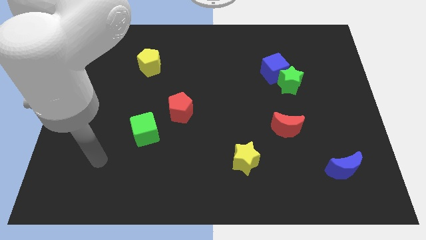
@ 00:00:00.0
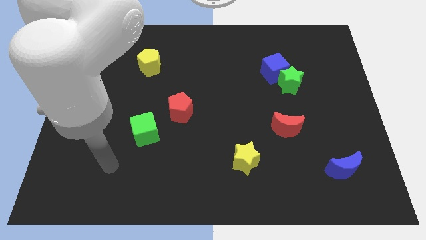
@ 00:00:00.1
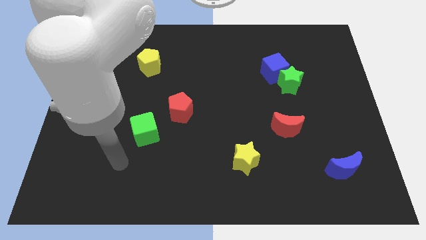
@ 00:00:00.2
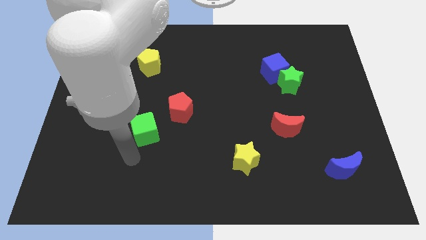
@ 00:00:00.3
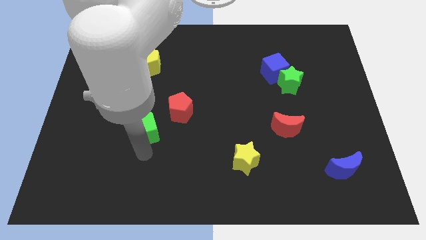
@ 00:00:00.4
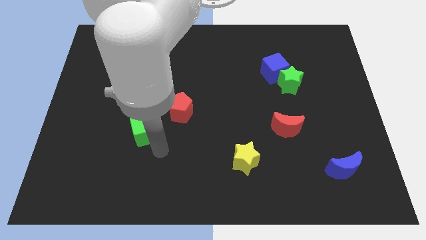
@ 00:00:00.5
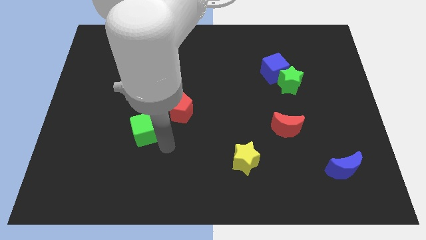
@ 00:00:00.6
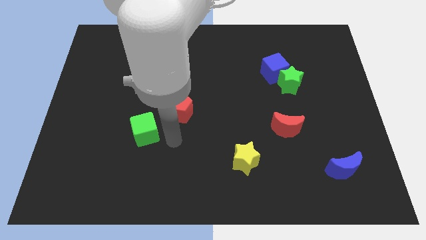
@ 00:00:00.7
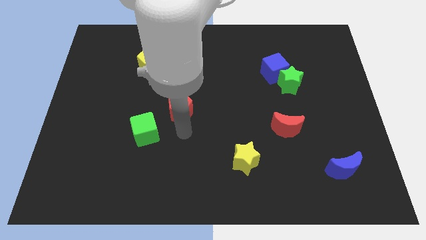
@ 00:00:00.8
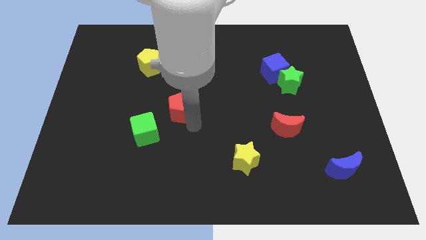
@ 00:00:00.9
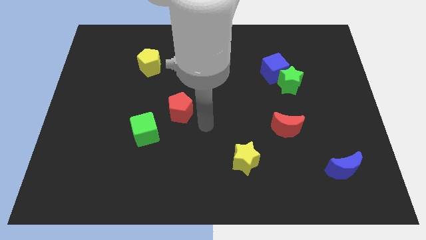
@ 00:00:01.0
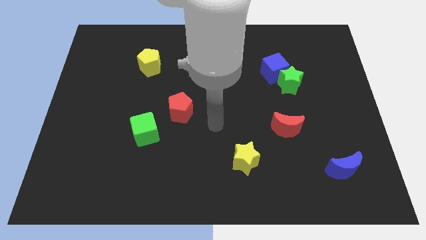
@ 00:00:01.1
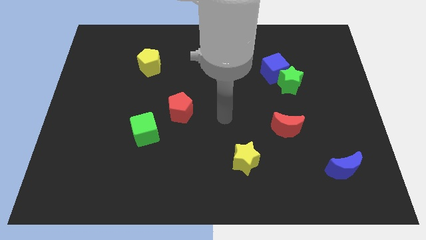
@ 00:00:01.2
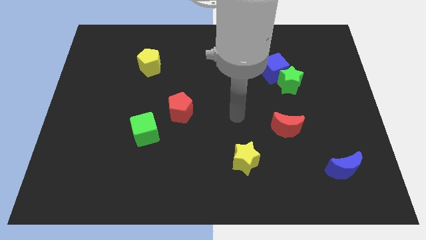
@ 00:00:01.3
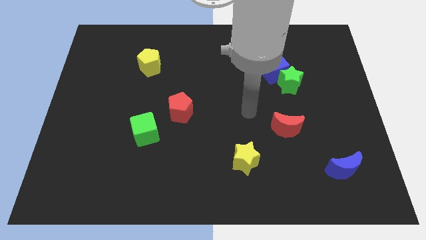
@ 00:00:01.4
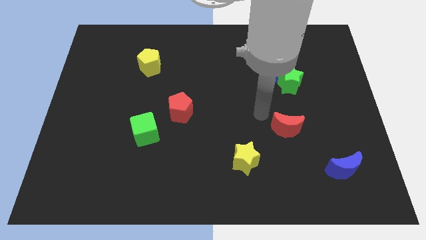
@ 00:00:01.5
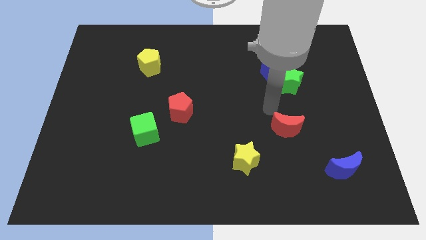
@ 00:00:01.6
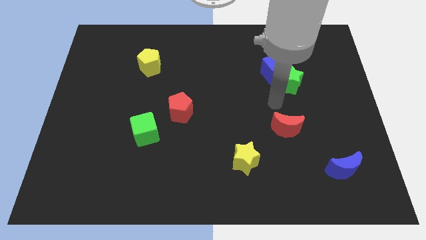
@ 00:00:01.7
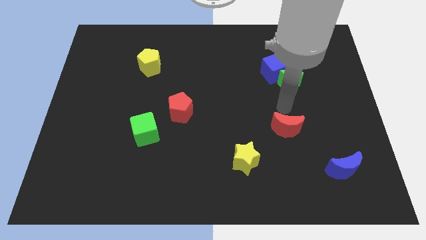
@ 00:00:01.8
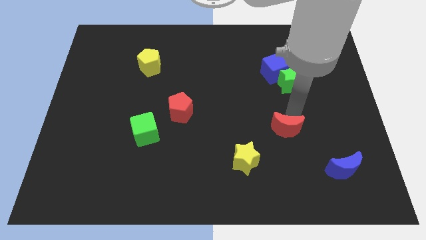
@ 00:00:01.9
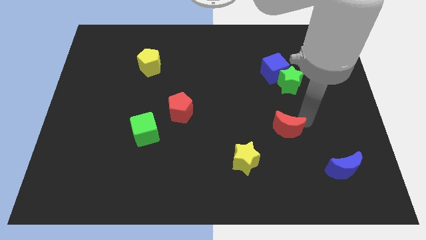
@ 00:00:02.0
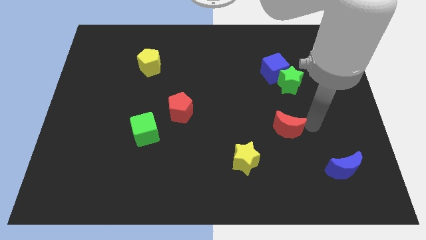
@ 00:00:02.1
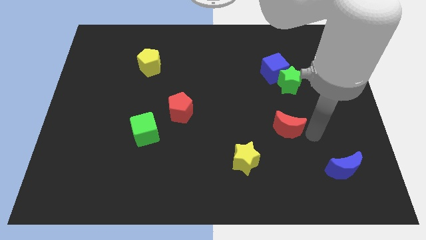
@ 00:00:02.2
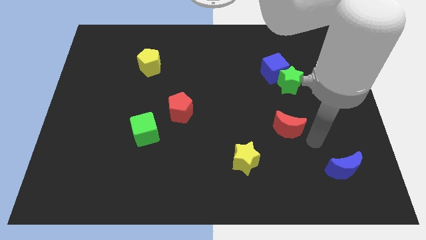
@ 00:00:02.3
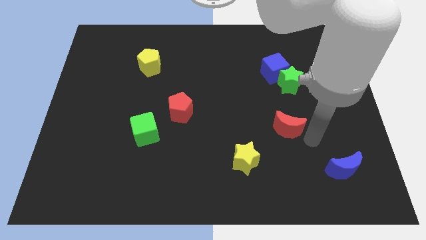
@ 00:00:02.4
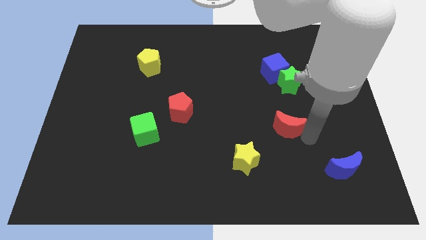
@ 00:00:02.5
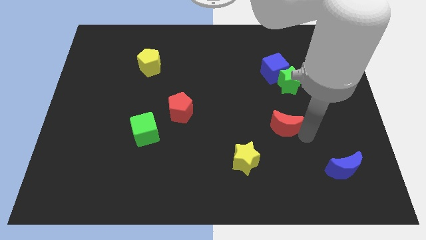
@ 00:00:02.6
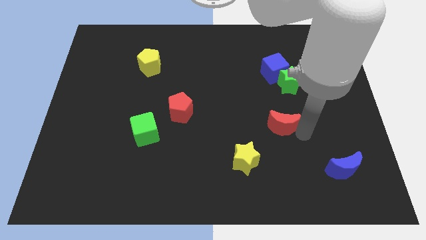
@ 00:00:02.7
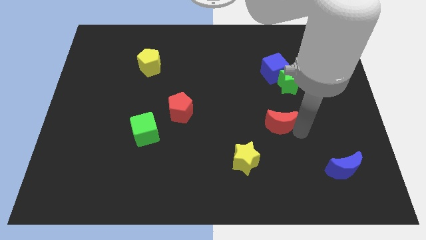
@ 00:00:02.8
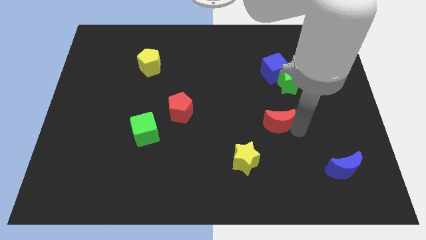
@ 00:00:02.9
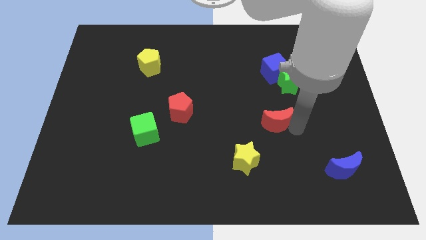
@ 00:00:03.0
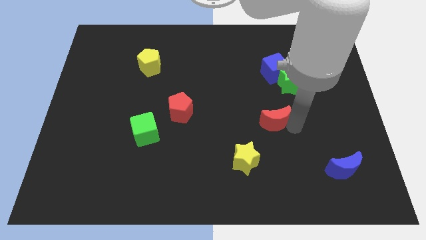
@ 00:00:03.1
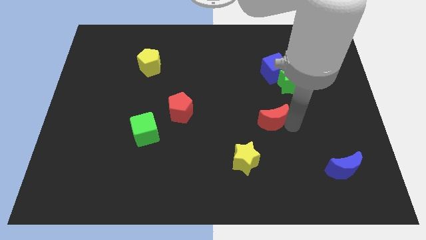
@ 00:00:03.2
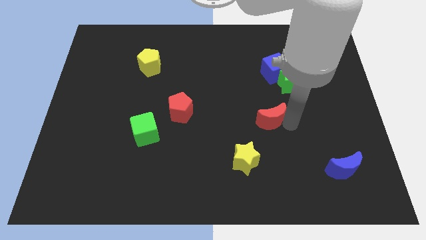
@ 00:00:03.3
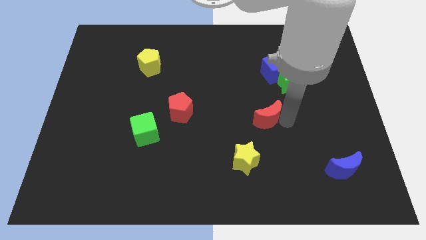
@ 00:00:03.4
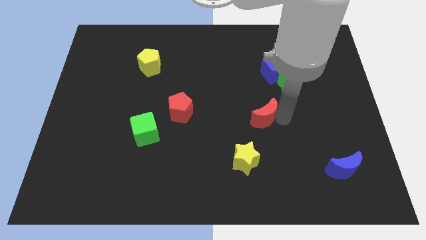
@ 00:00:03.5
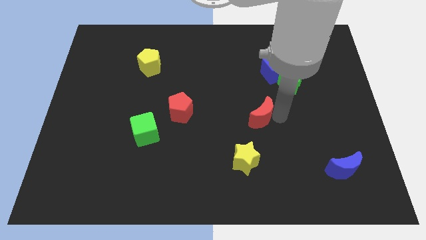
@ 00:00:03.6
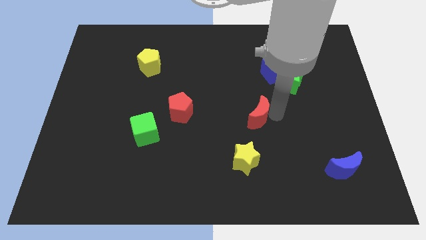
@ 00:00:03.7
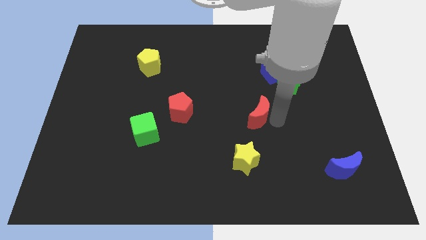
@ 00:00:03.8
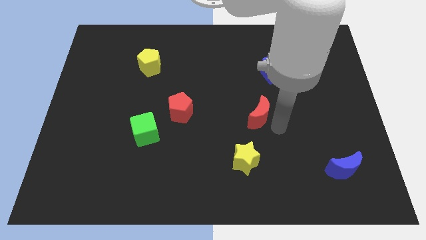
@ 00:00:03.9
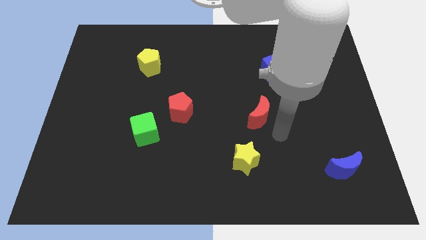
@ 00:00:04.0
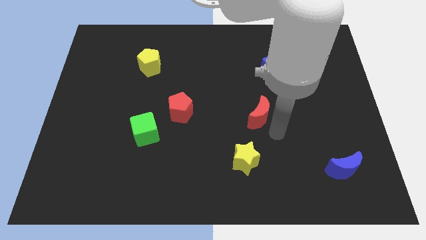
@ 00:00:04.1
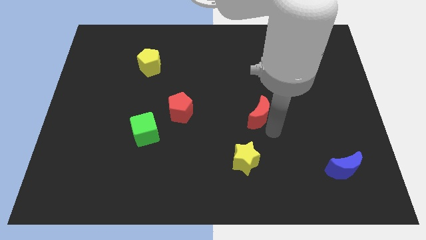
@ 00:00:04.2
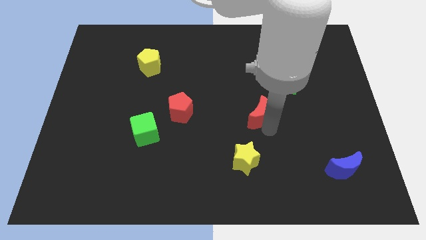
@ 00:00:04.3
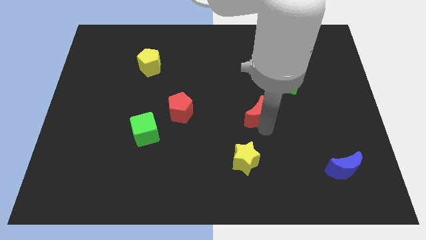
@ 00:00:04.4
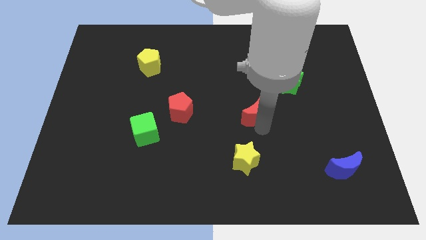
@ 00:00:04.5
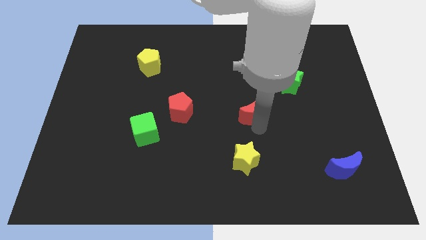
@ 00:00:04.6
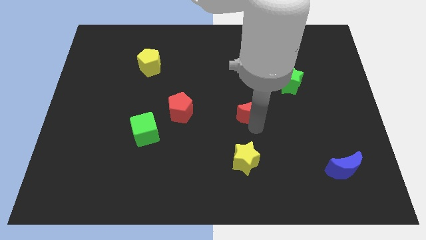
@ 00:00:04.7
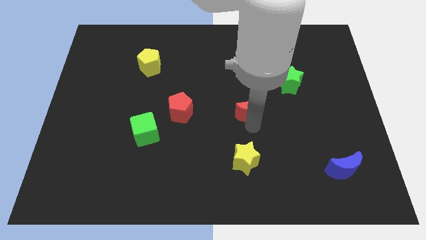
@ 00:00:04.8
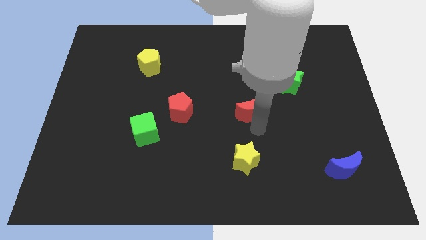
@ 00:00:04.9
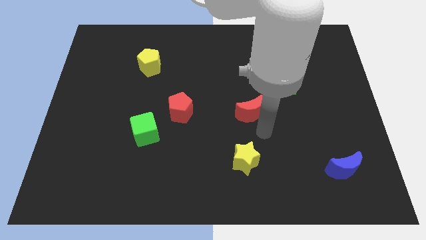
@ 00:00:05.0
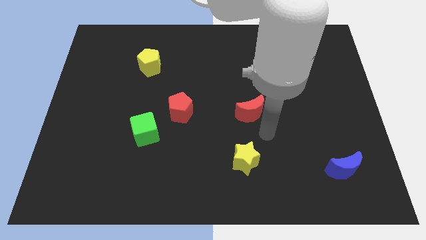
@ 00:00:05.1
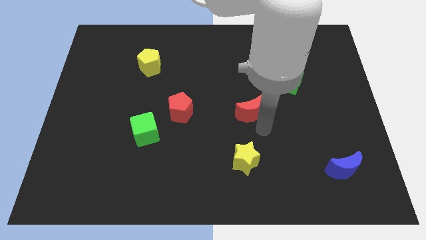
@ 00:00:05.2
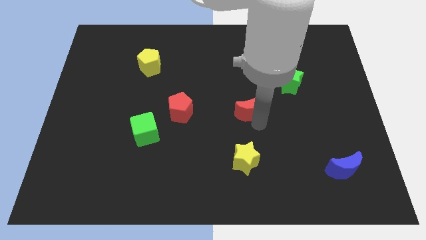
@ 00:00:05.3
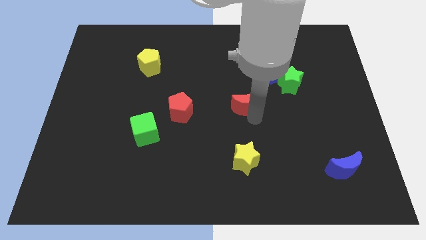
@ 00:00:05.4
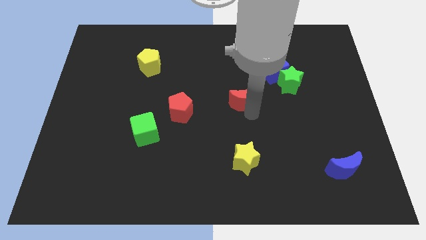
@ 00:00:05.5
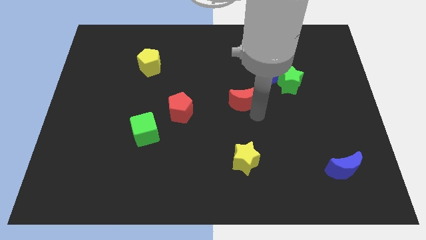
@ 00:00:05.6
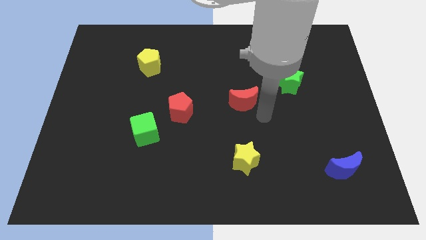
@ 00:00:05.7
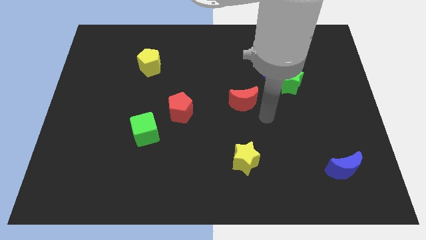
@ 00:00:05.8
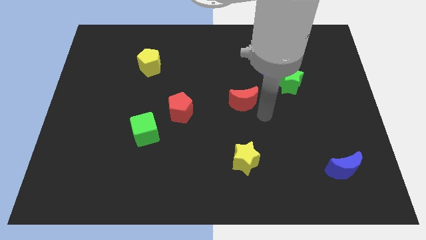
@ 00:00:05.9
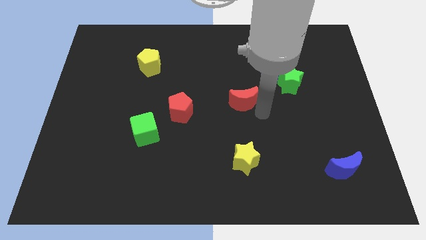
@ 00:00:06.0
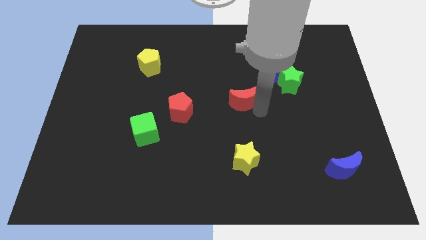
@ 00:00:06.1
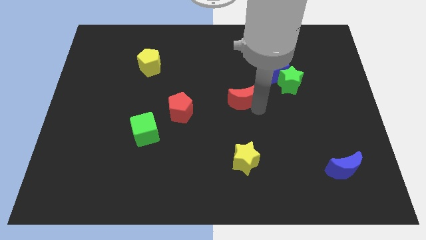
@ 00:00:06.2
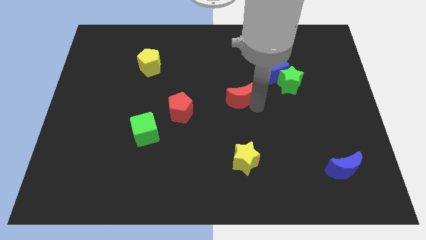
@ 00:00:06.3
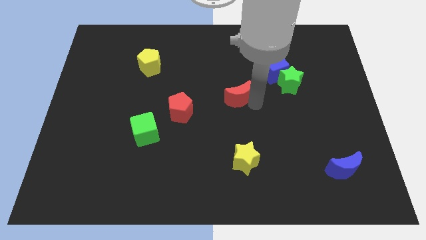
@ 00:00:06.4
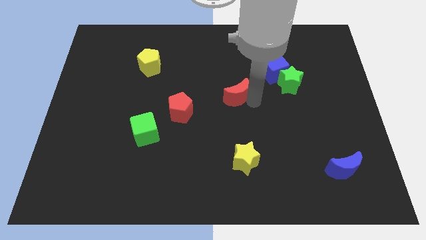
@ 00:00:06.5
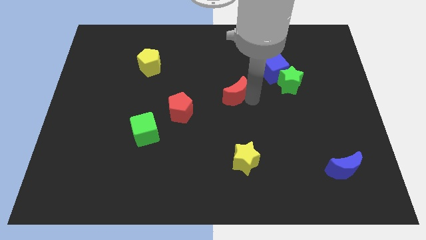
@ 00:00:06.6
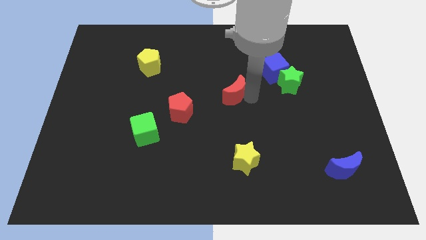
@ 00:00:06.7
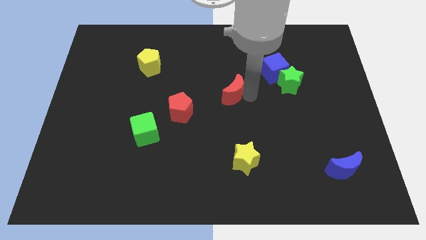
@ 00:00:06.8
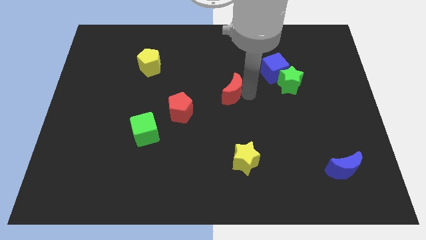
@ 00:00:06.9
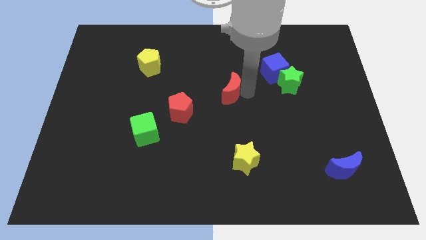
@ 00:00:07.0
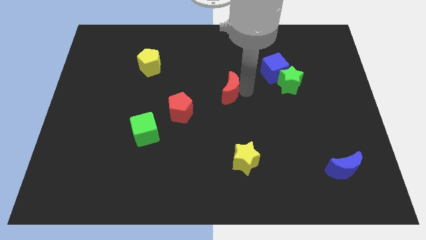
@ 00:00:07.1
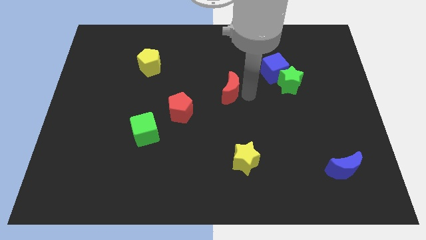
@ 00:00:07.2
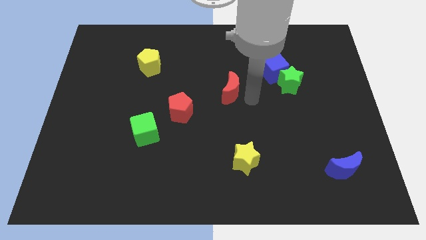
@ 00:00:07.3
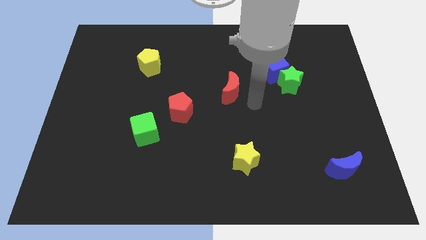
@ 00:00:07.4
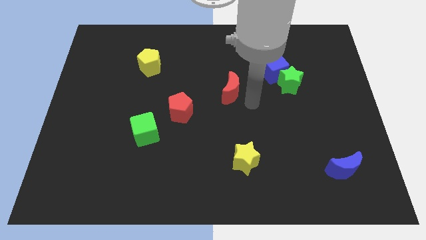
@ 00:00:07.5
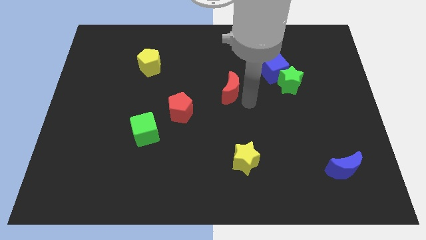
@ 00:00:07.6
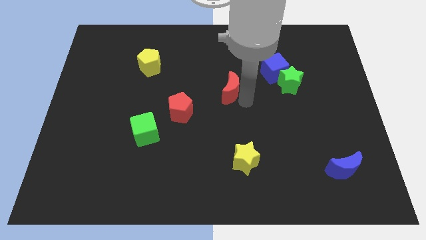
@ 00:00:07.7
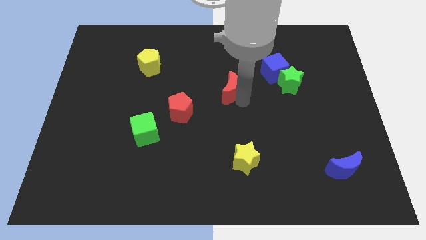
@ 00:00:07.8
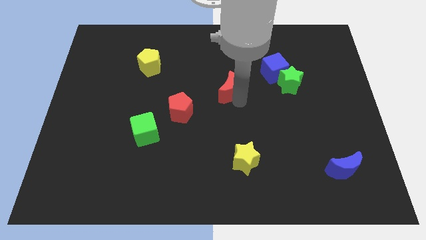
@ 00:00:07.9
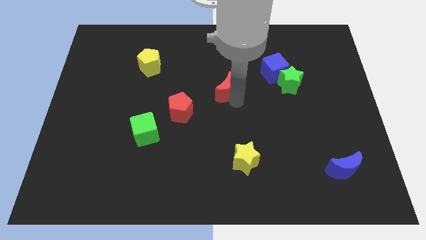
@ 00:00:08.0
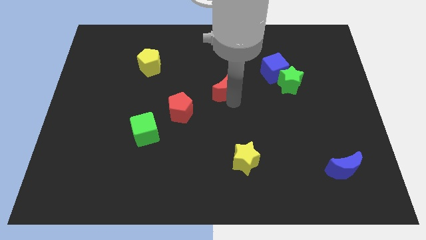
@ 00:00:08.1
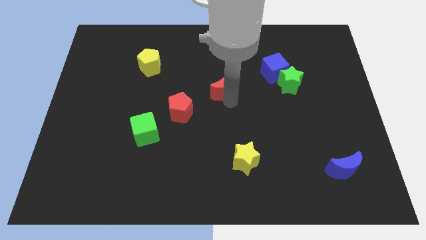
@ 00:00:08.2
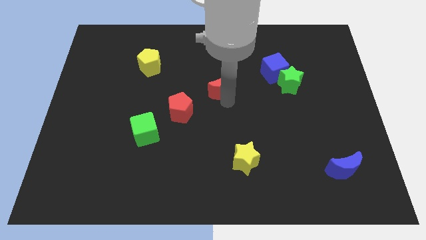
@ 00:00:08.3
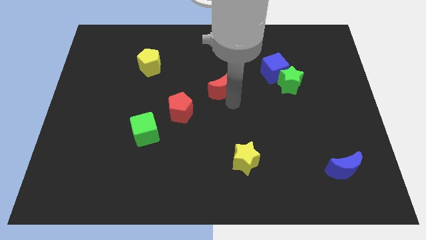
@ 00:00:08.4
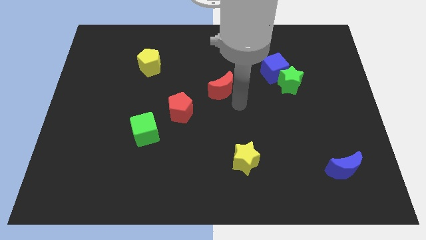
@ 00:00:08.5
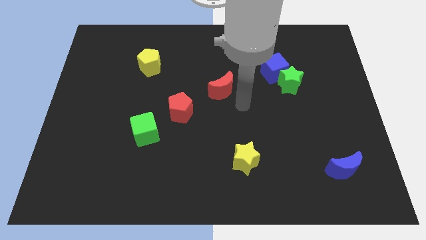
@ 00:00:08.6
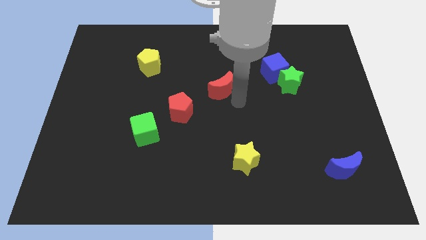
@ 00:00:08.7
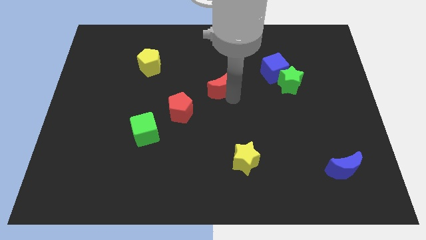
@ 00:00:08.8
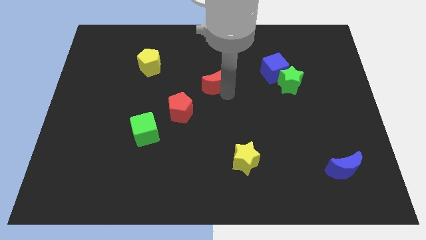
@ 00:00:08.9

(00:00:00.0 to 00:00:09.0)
push the red moon upwards and then to the left
